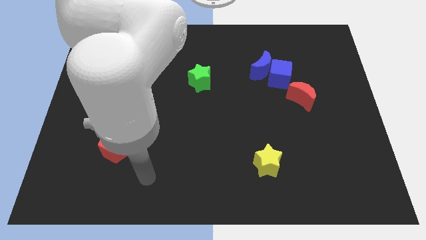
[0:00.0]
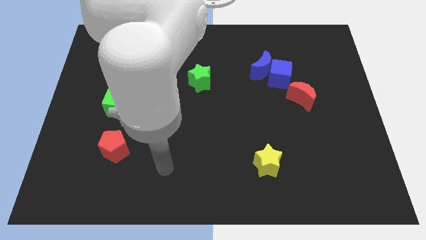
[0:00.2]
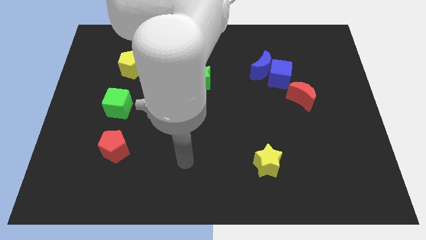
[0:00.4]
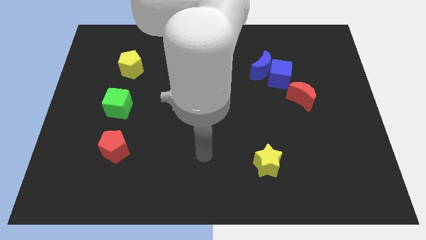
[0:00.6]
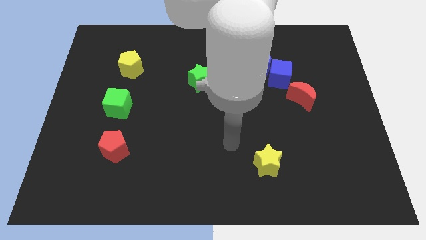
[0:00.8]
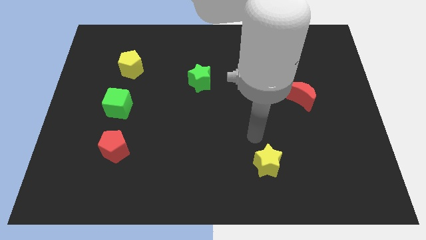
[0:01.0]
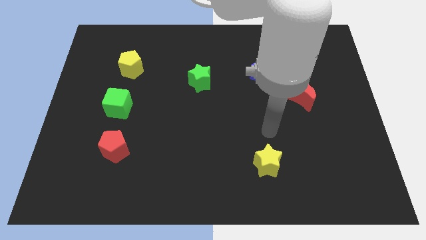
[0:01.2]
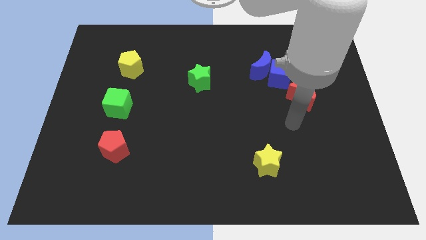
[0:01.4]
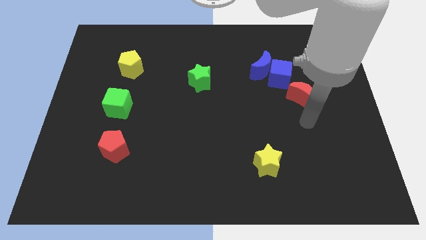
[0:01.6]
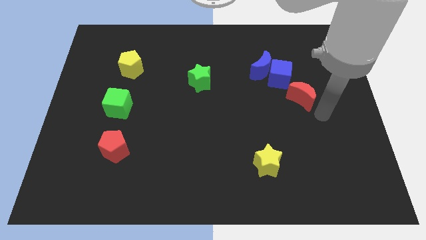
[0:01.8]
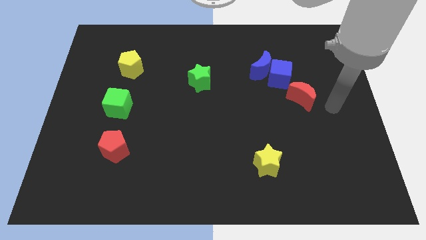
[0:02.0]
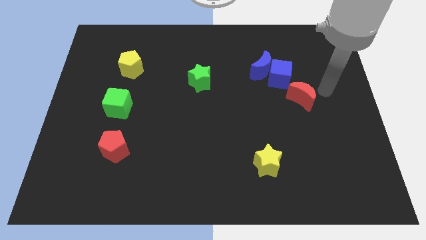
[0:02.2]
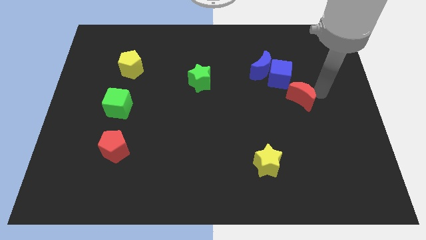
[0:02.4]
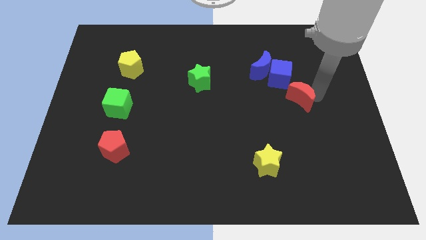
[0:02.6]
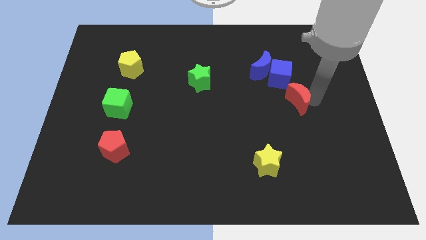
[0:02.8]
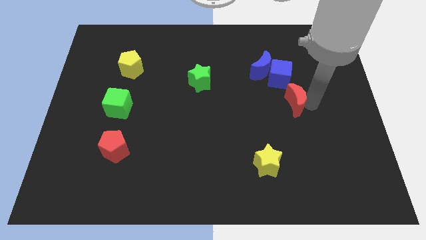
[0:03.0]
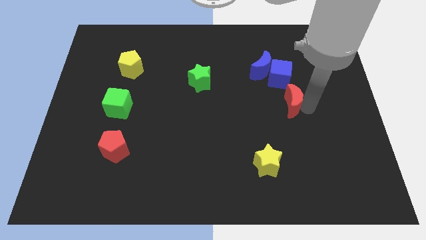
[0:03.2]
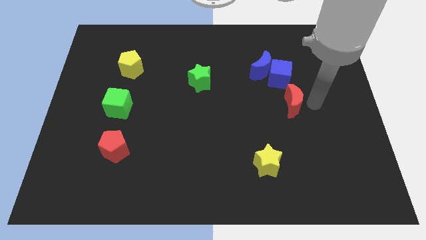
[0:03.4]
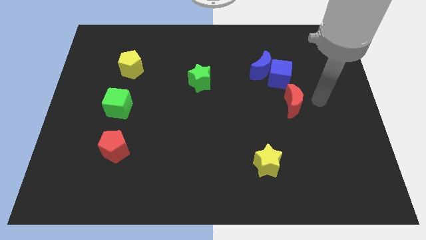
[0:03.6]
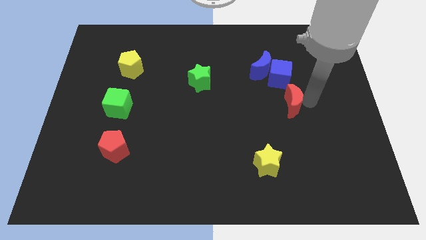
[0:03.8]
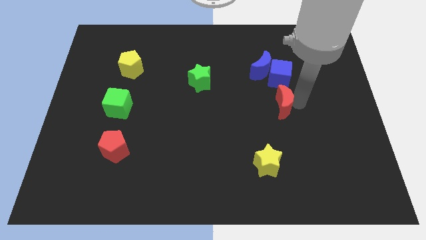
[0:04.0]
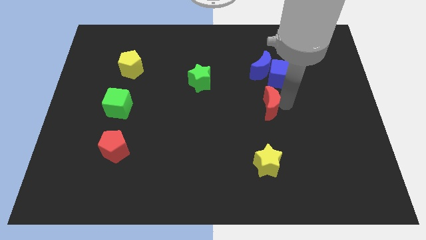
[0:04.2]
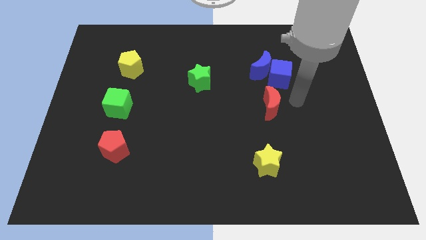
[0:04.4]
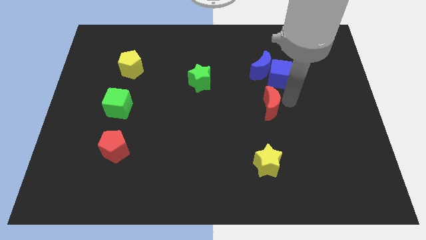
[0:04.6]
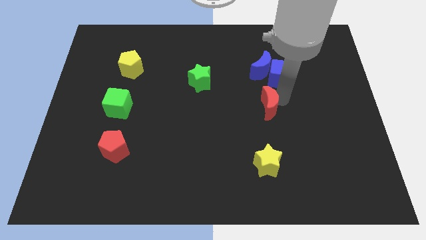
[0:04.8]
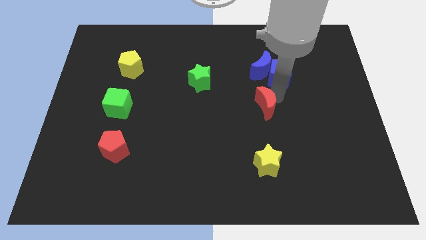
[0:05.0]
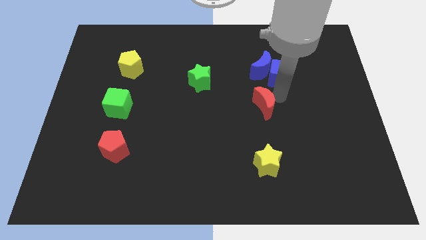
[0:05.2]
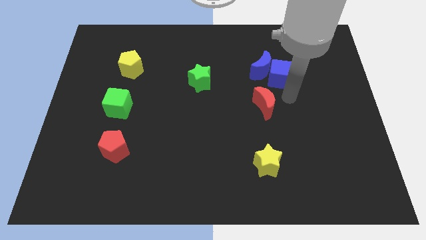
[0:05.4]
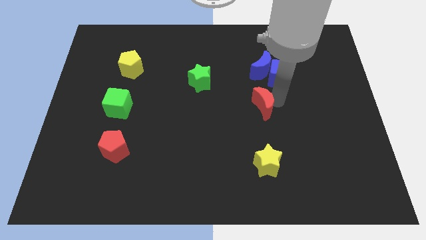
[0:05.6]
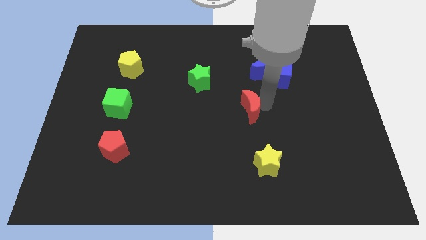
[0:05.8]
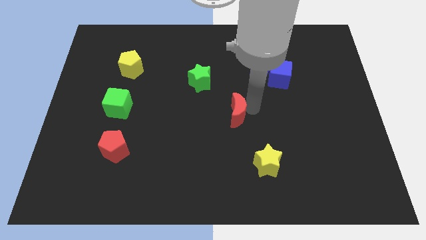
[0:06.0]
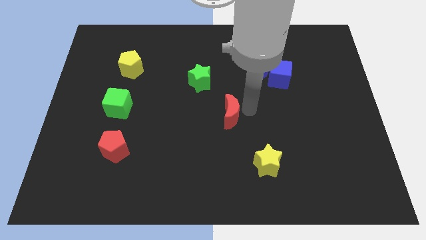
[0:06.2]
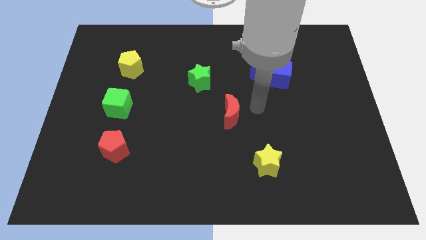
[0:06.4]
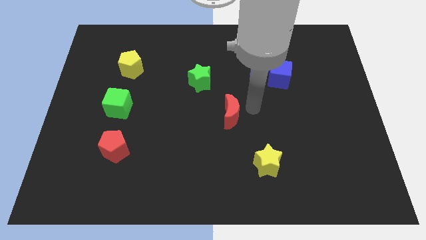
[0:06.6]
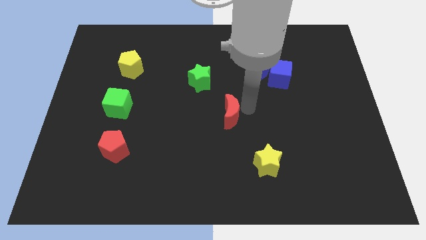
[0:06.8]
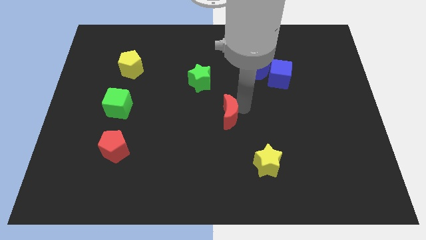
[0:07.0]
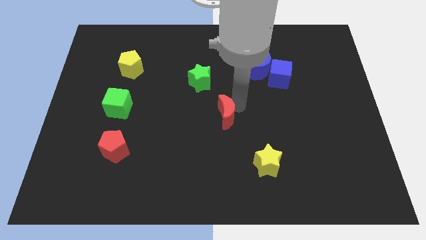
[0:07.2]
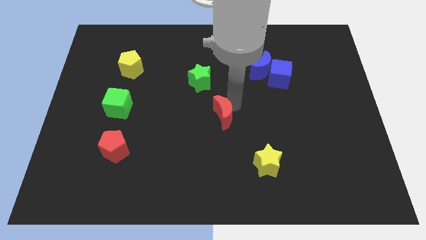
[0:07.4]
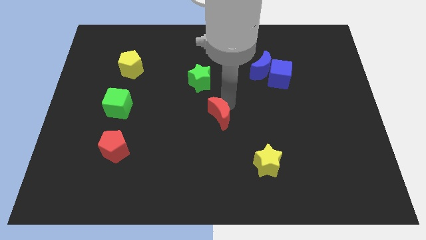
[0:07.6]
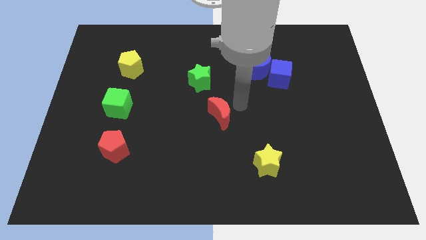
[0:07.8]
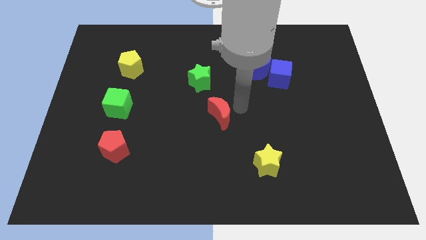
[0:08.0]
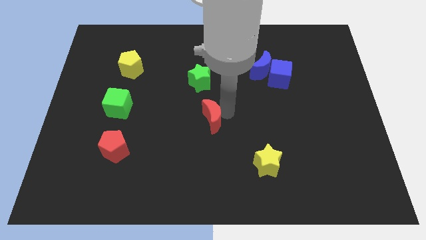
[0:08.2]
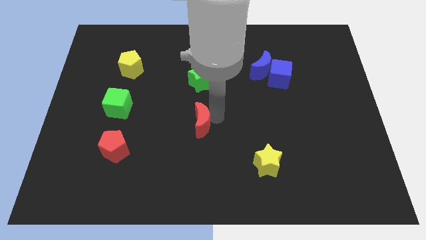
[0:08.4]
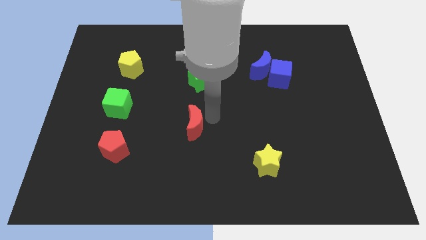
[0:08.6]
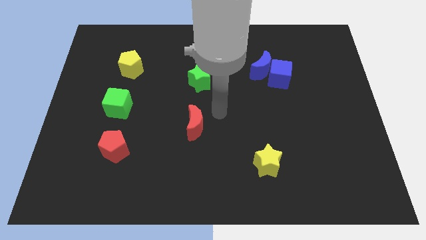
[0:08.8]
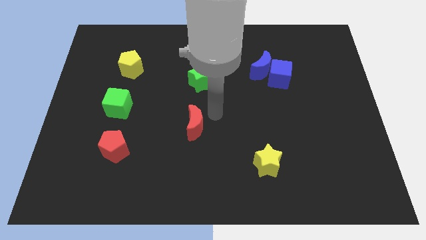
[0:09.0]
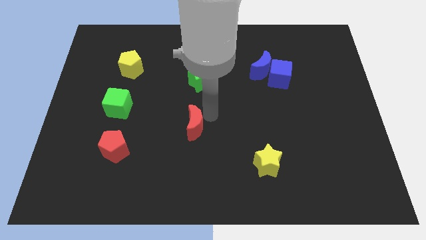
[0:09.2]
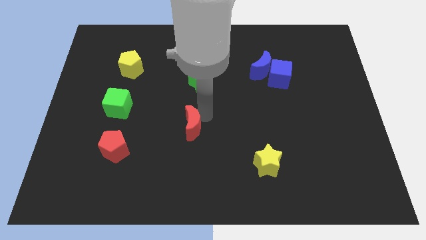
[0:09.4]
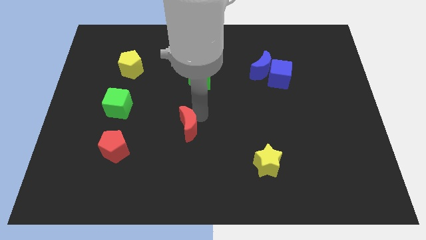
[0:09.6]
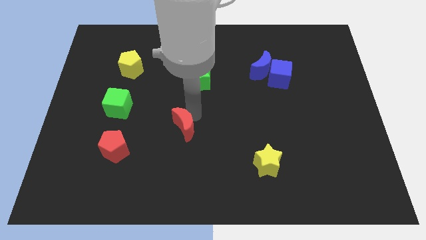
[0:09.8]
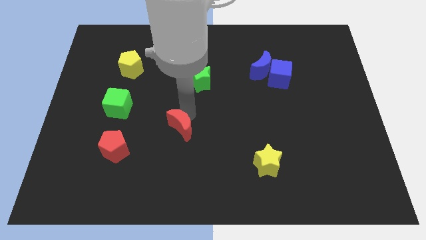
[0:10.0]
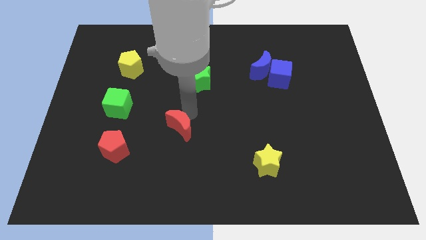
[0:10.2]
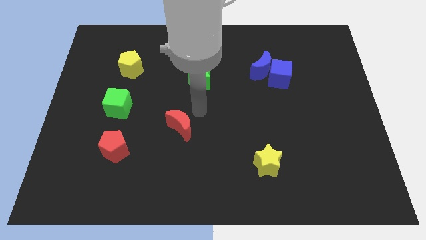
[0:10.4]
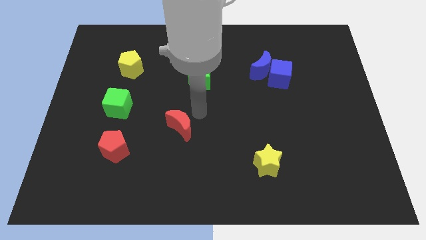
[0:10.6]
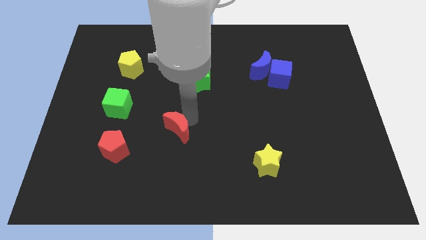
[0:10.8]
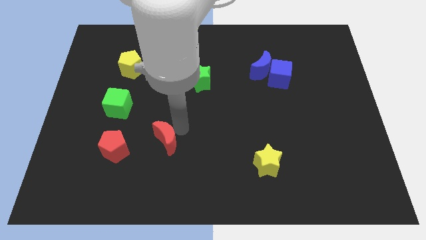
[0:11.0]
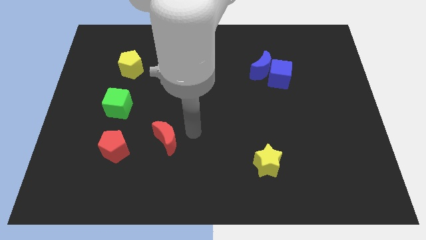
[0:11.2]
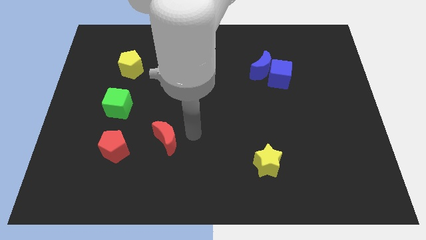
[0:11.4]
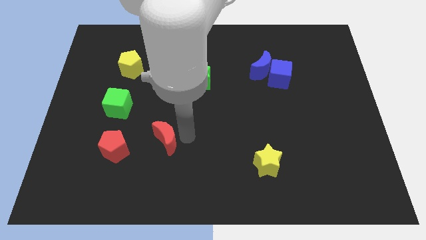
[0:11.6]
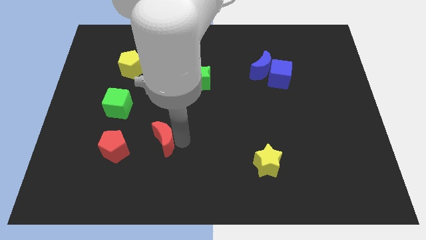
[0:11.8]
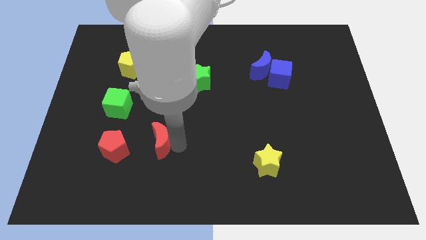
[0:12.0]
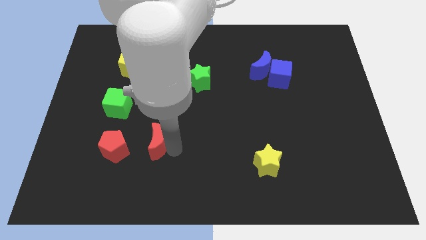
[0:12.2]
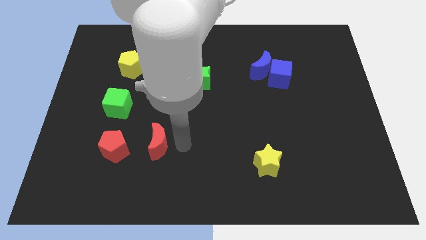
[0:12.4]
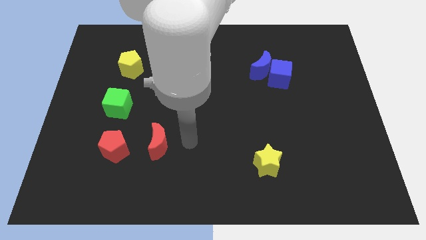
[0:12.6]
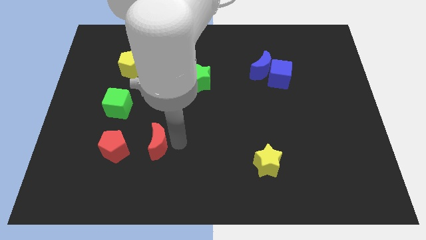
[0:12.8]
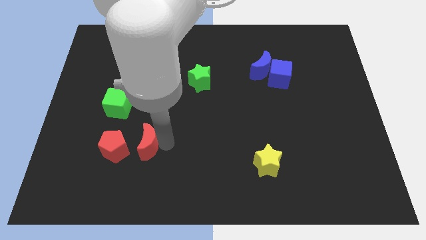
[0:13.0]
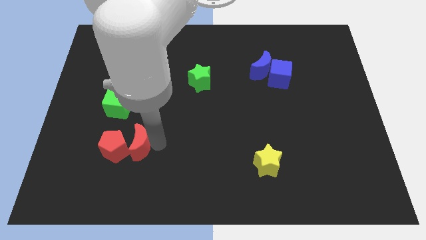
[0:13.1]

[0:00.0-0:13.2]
slide the red moon close to the red pentagon
